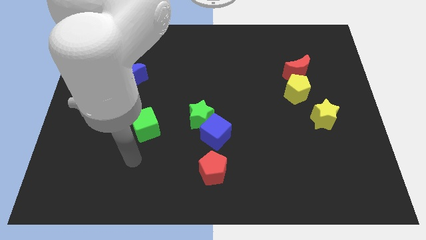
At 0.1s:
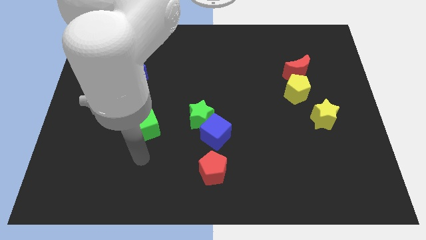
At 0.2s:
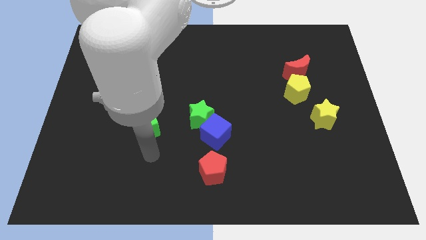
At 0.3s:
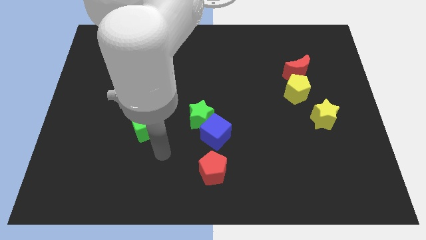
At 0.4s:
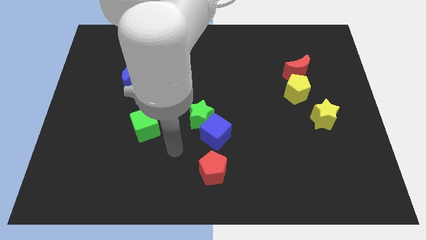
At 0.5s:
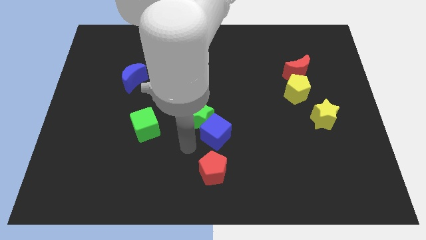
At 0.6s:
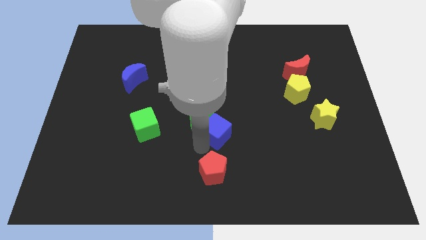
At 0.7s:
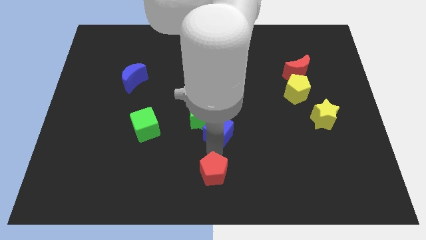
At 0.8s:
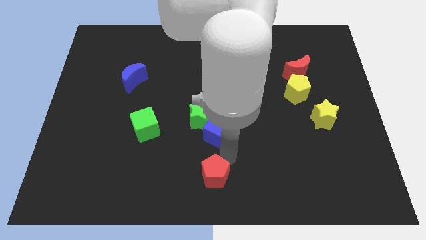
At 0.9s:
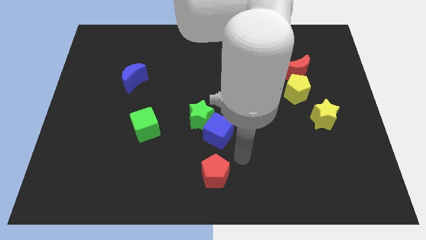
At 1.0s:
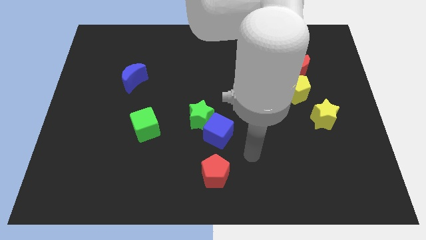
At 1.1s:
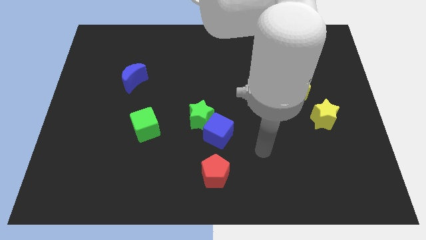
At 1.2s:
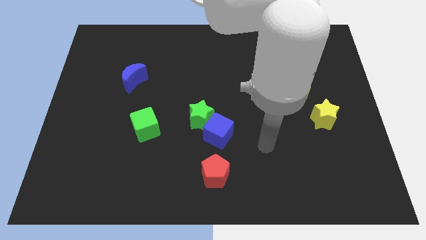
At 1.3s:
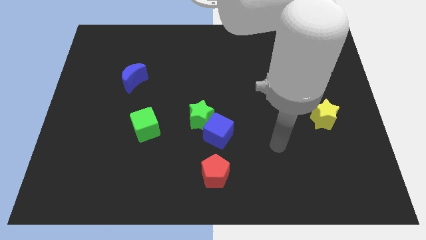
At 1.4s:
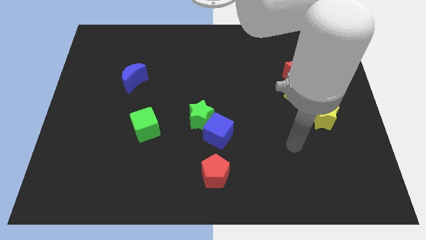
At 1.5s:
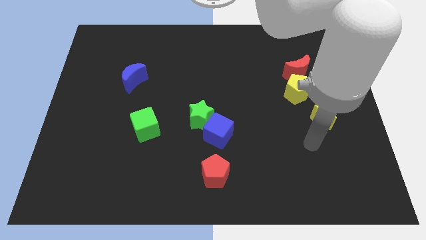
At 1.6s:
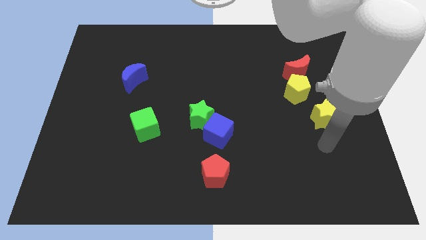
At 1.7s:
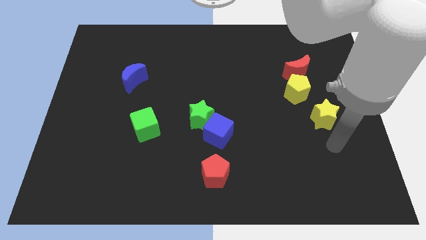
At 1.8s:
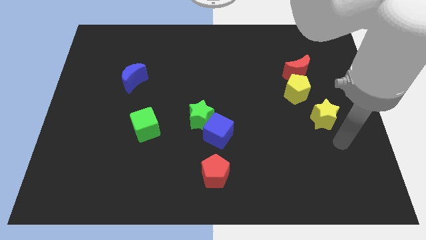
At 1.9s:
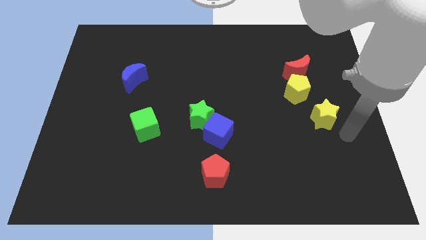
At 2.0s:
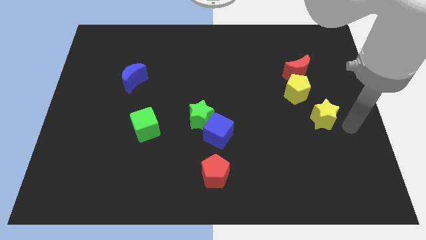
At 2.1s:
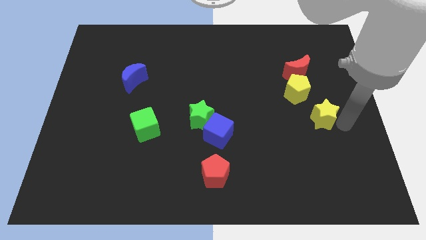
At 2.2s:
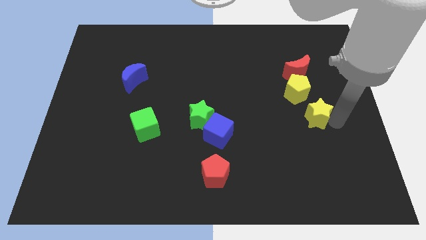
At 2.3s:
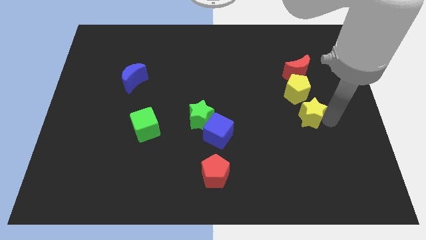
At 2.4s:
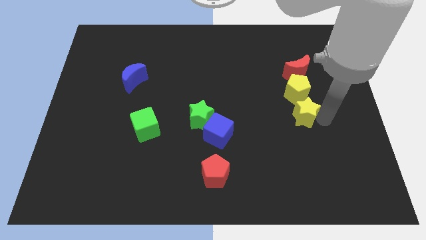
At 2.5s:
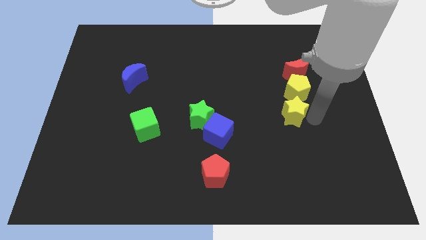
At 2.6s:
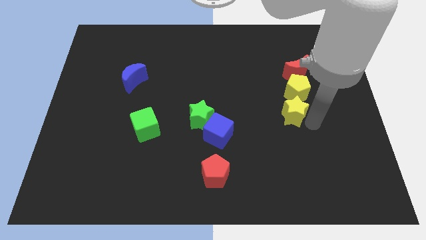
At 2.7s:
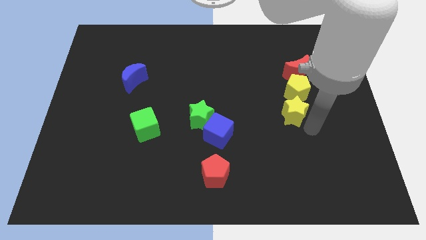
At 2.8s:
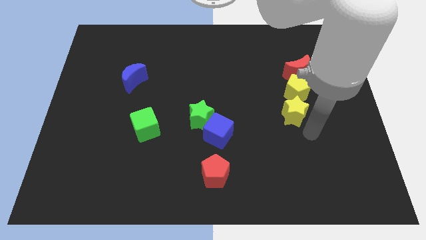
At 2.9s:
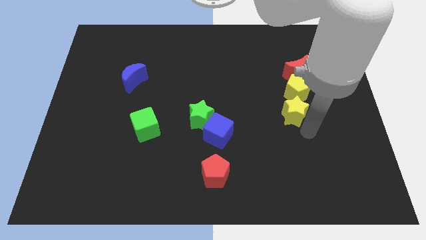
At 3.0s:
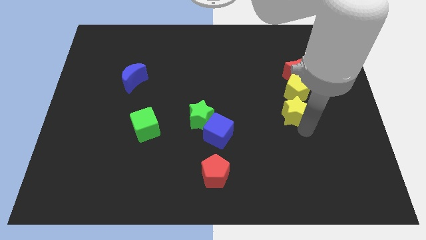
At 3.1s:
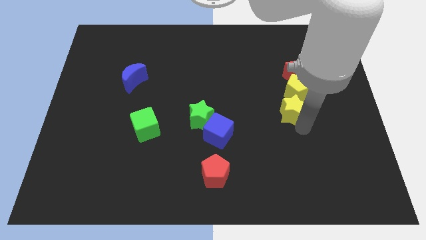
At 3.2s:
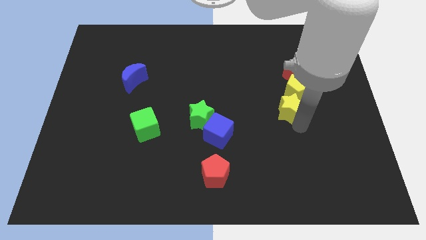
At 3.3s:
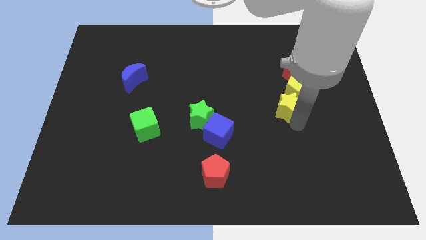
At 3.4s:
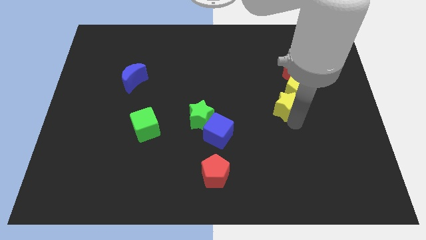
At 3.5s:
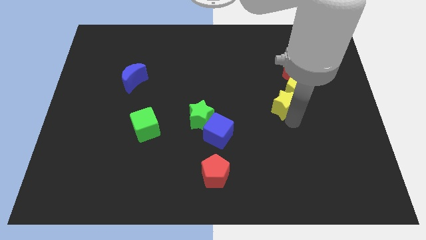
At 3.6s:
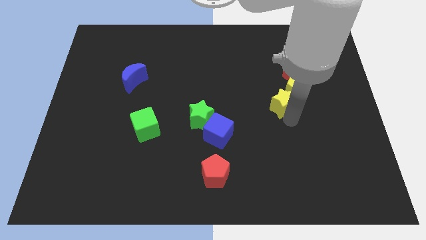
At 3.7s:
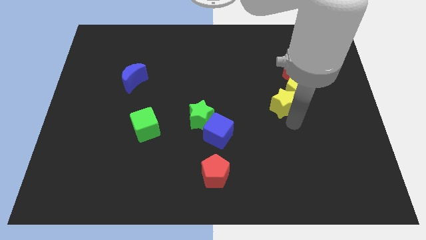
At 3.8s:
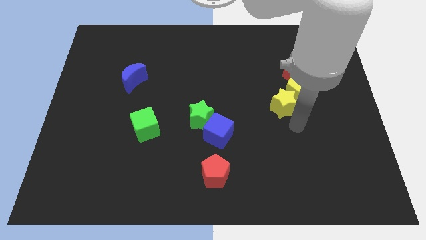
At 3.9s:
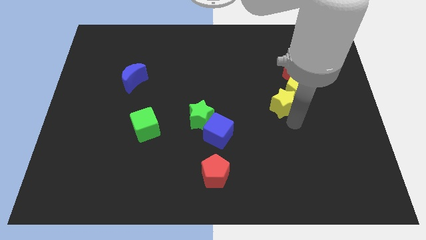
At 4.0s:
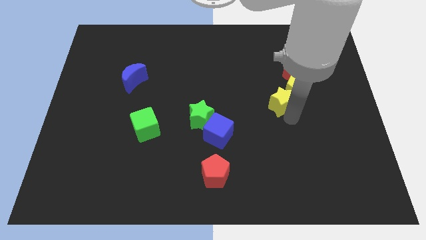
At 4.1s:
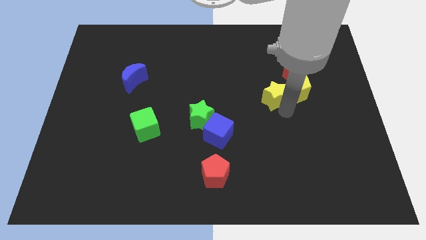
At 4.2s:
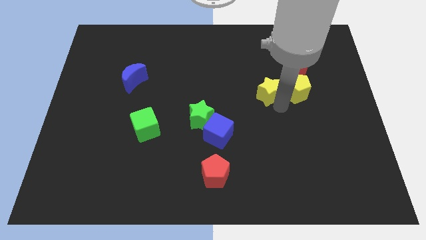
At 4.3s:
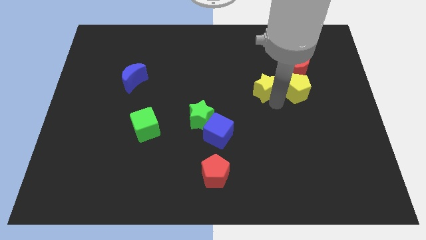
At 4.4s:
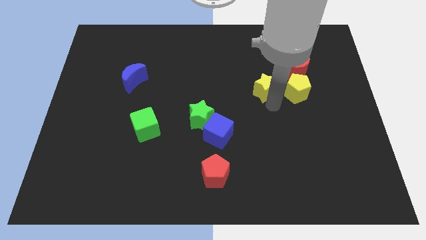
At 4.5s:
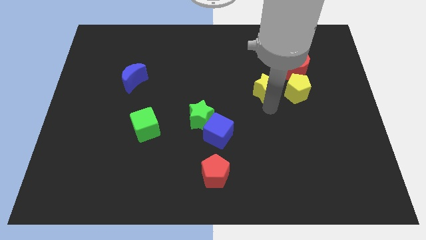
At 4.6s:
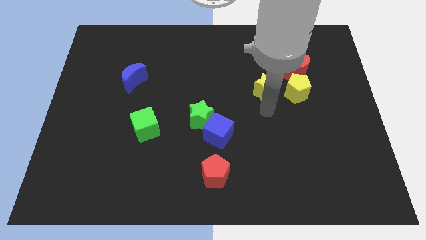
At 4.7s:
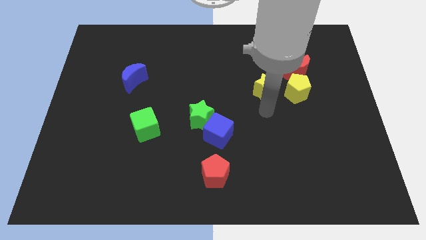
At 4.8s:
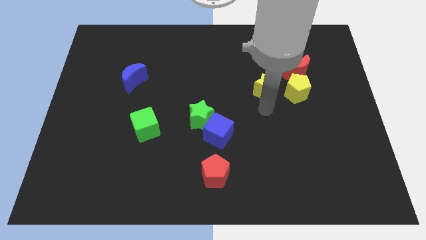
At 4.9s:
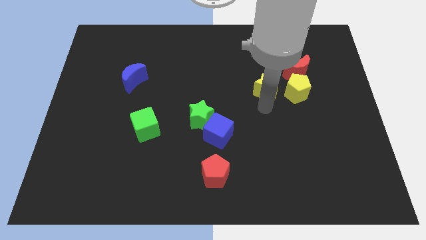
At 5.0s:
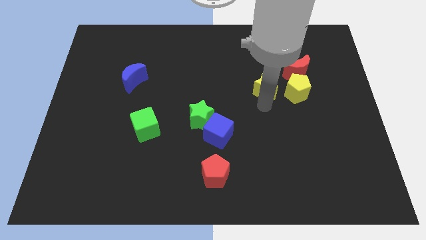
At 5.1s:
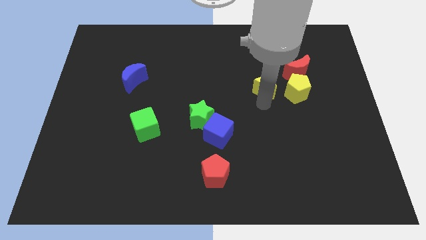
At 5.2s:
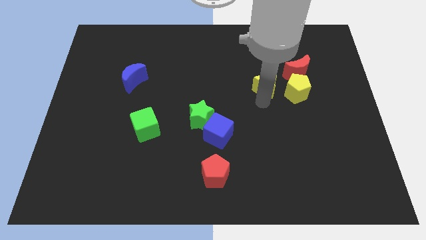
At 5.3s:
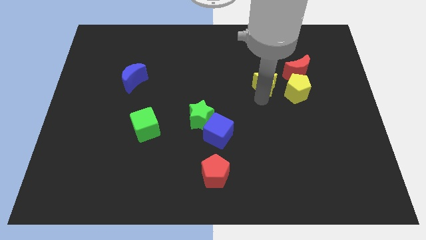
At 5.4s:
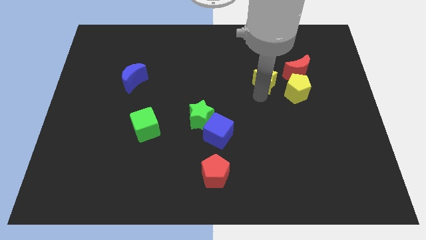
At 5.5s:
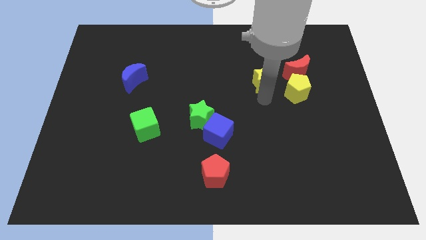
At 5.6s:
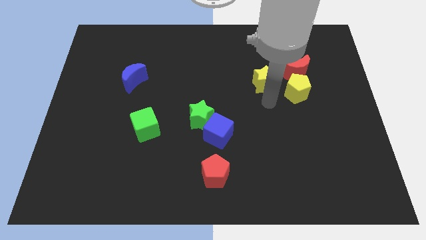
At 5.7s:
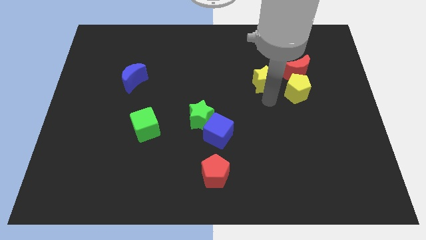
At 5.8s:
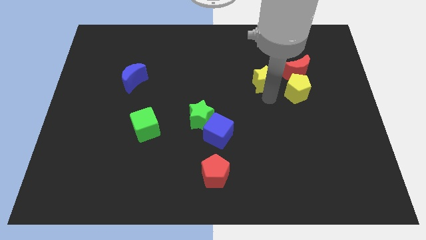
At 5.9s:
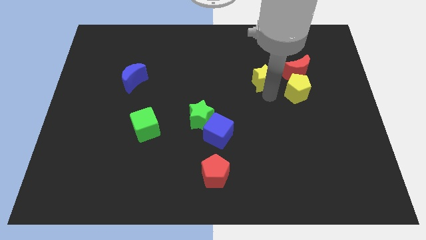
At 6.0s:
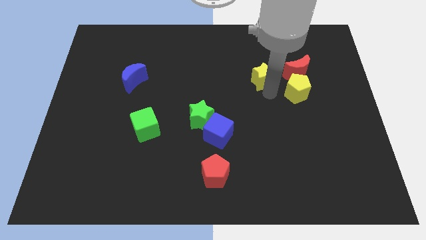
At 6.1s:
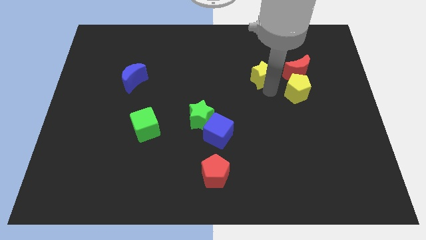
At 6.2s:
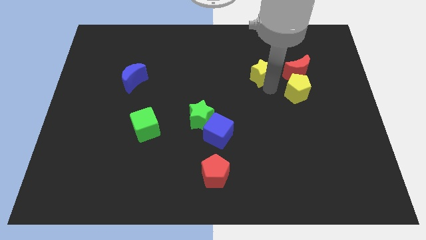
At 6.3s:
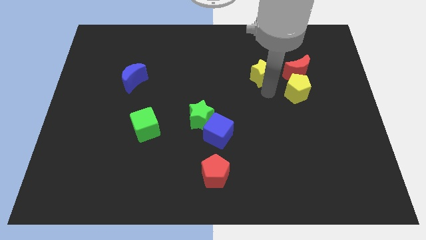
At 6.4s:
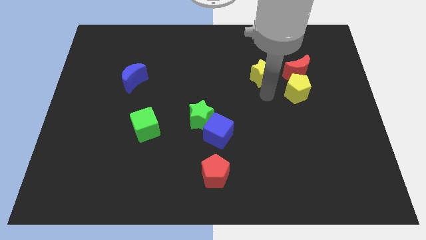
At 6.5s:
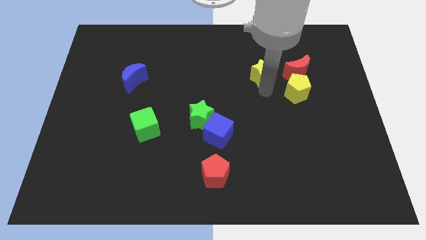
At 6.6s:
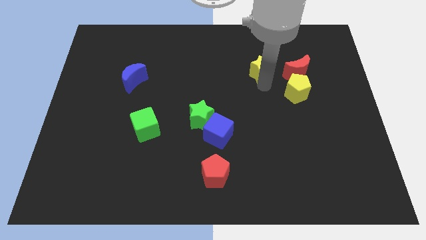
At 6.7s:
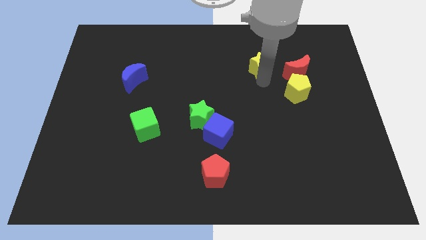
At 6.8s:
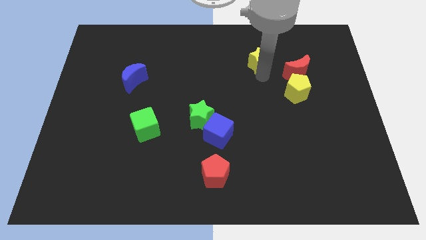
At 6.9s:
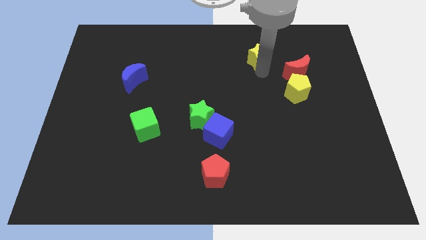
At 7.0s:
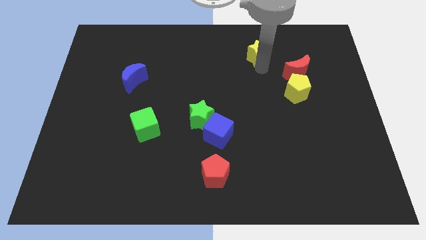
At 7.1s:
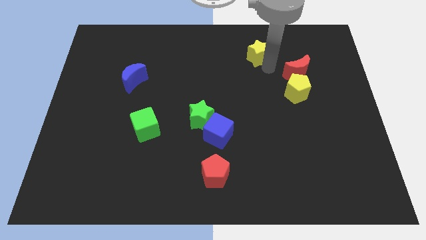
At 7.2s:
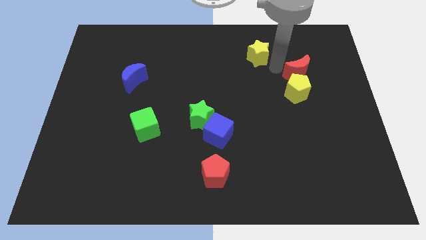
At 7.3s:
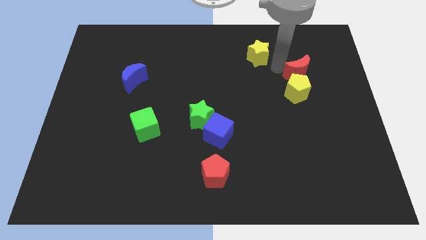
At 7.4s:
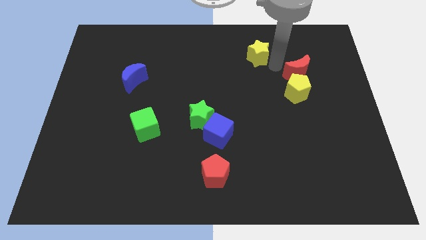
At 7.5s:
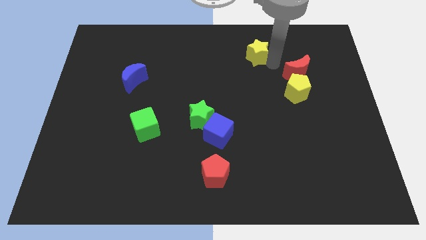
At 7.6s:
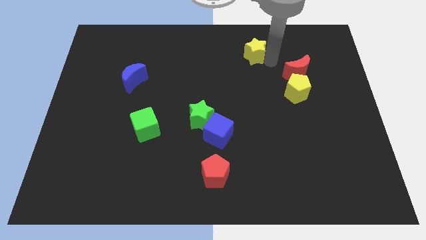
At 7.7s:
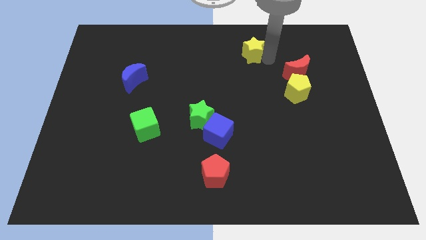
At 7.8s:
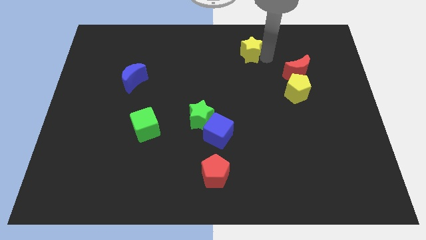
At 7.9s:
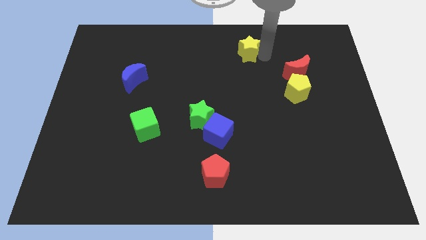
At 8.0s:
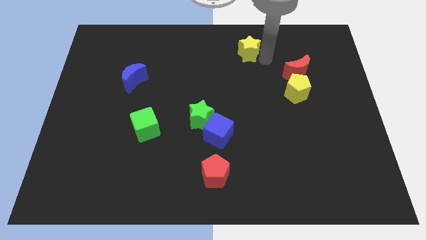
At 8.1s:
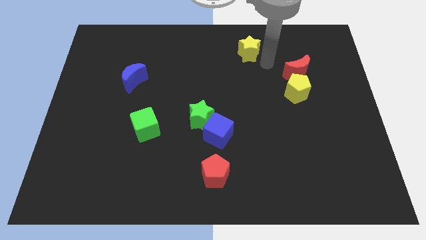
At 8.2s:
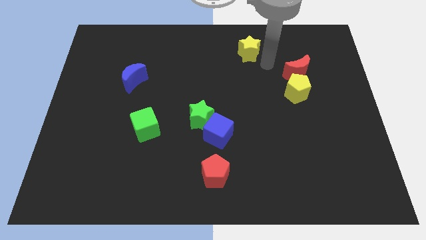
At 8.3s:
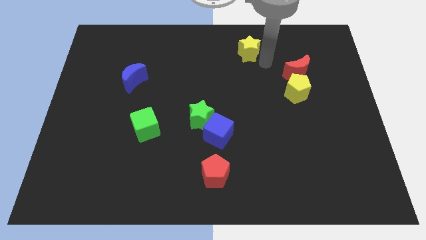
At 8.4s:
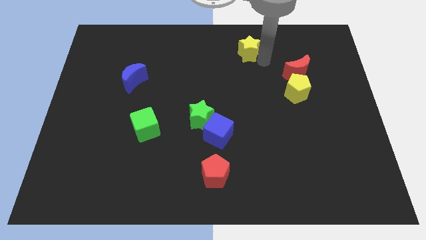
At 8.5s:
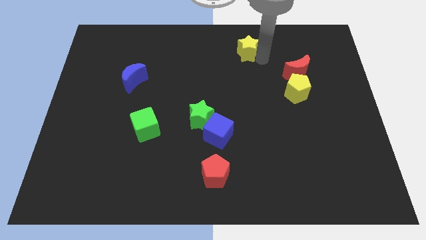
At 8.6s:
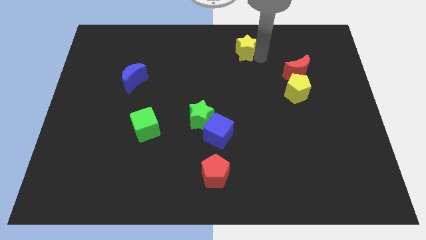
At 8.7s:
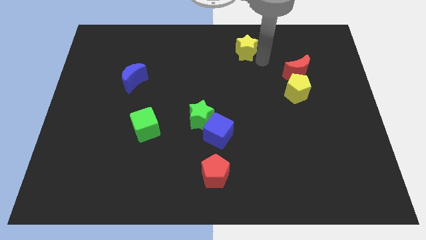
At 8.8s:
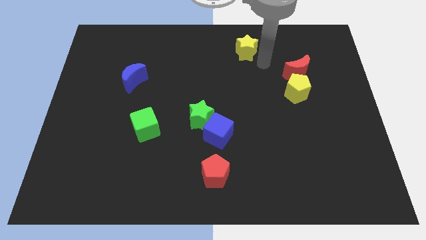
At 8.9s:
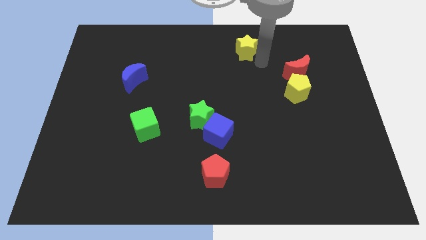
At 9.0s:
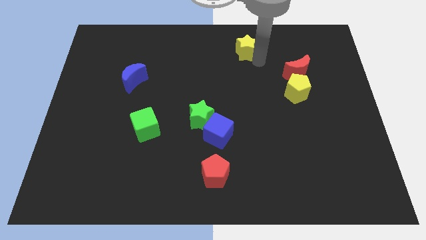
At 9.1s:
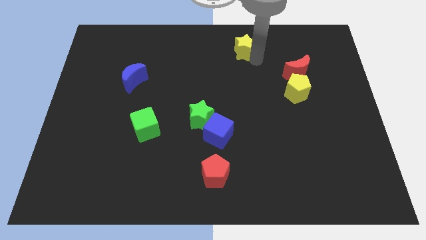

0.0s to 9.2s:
move the yellow star to the top
